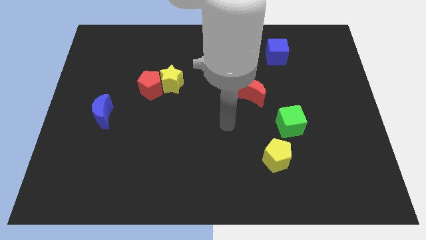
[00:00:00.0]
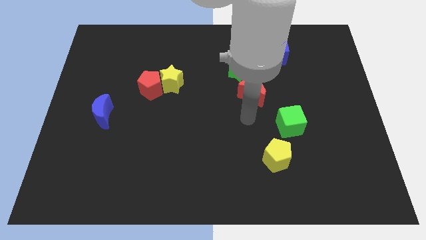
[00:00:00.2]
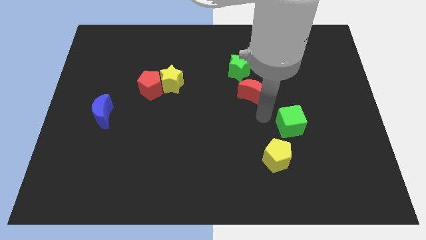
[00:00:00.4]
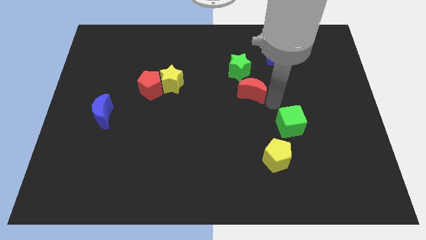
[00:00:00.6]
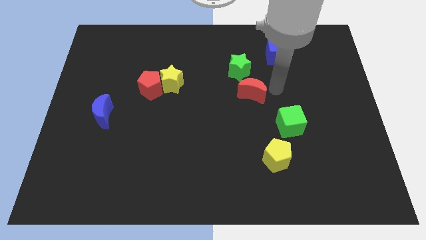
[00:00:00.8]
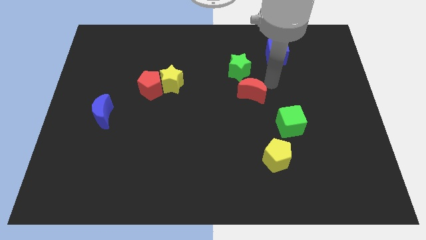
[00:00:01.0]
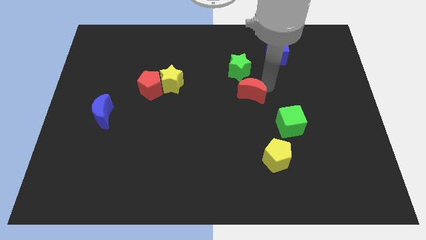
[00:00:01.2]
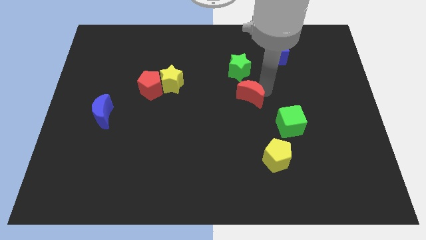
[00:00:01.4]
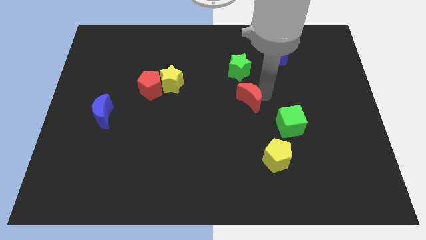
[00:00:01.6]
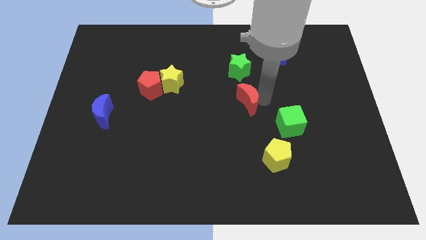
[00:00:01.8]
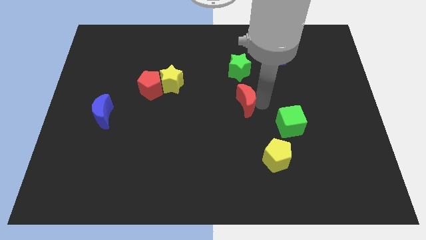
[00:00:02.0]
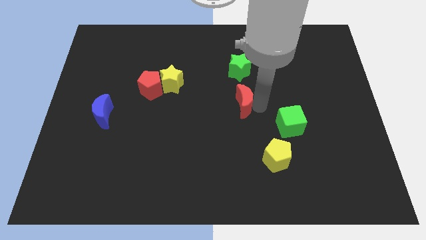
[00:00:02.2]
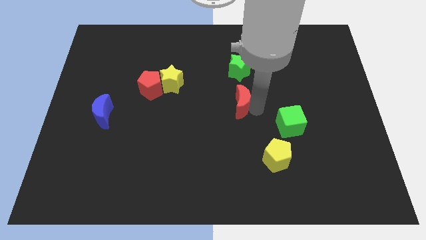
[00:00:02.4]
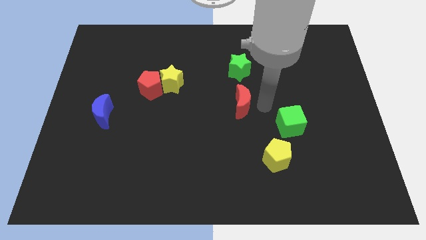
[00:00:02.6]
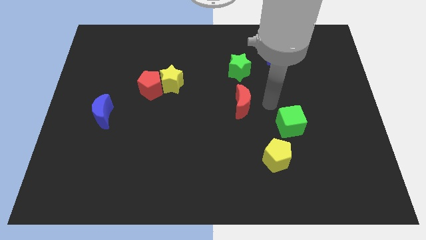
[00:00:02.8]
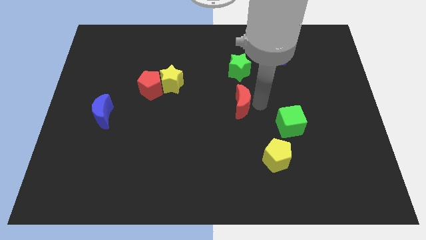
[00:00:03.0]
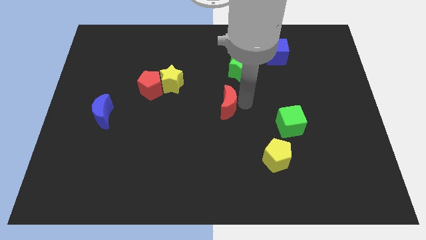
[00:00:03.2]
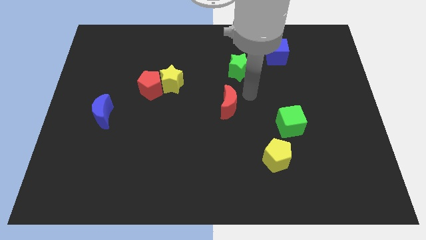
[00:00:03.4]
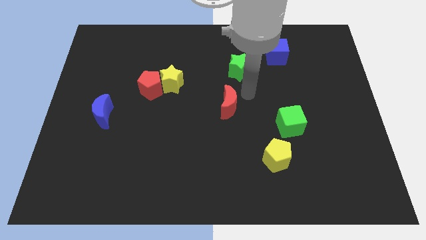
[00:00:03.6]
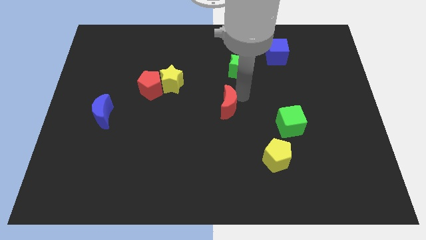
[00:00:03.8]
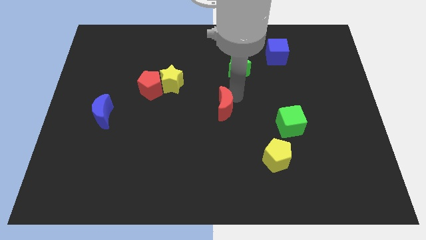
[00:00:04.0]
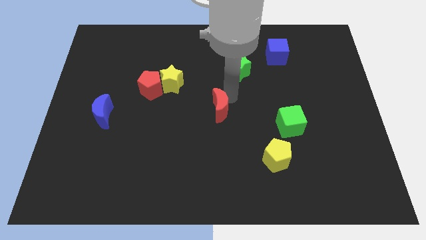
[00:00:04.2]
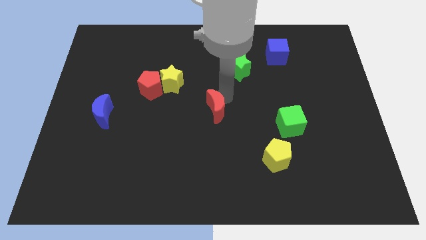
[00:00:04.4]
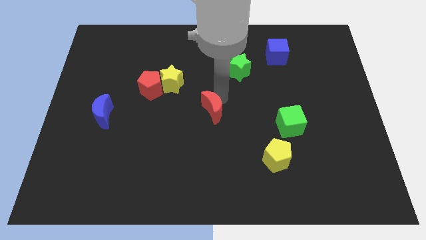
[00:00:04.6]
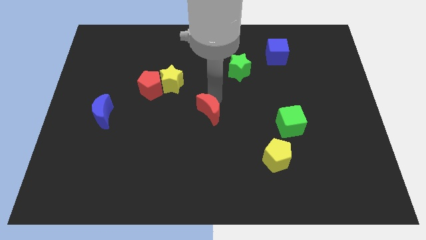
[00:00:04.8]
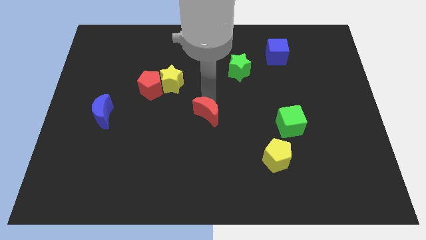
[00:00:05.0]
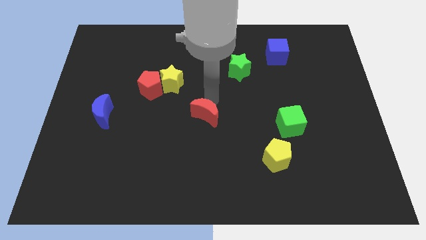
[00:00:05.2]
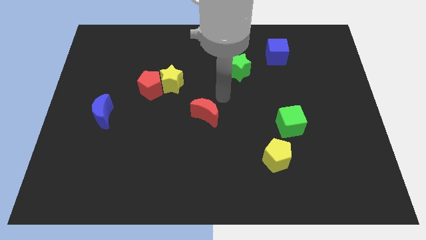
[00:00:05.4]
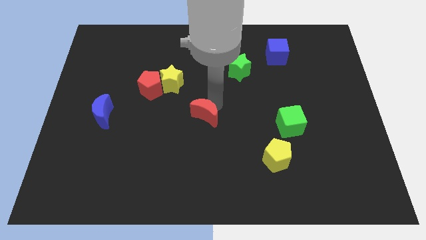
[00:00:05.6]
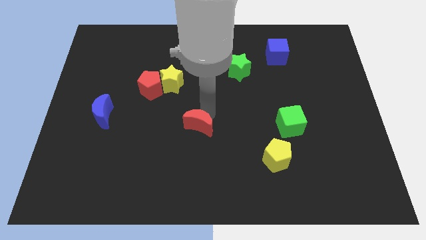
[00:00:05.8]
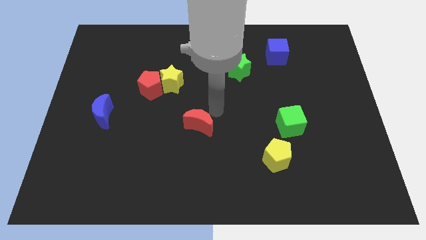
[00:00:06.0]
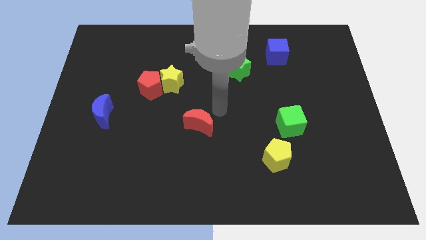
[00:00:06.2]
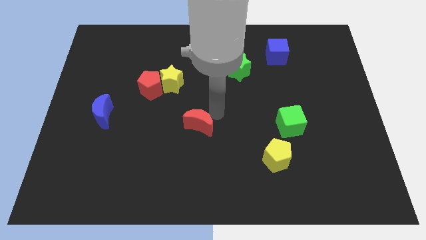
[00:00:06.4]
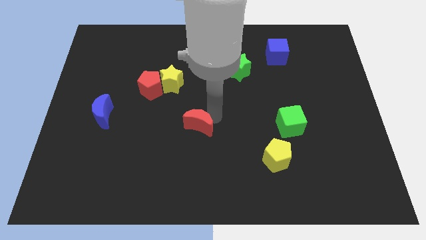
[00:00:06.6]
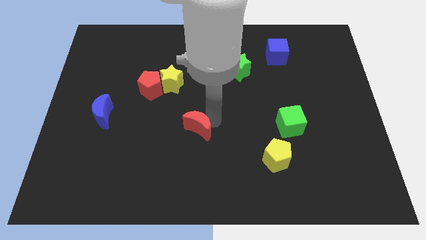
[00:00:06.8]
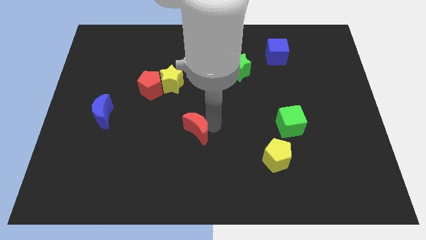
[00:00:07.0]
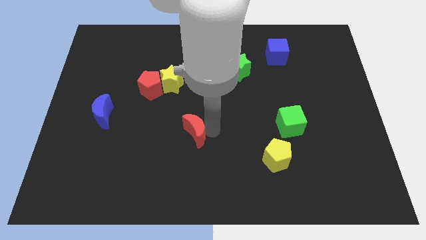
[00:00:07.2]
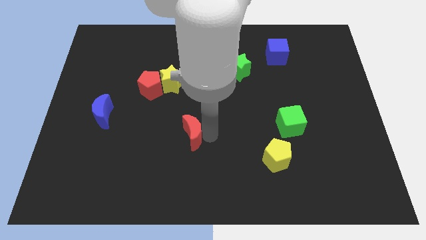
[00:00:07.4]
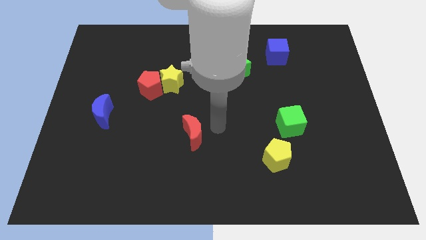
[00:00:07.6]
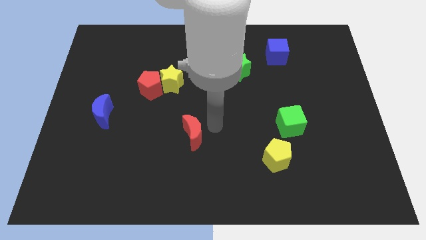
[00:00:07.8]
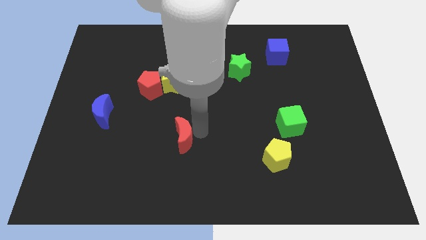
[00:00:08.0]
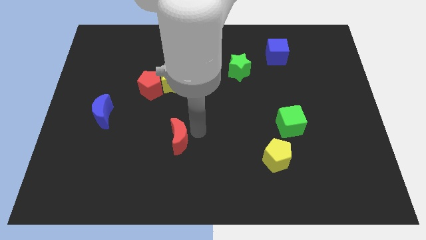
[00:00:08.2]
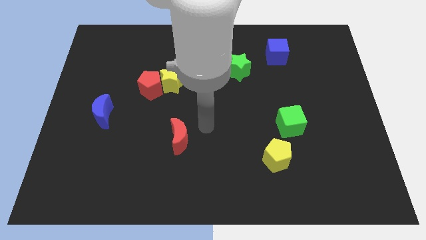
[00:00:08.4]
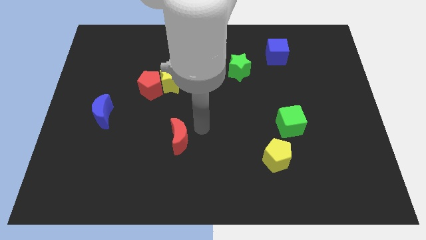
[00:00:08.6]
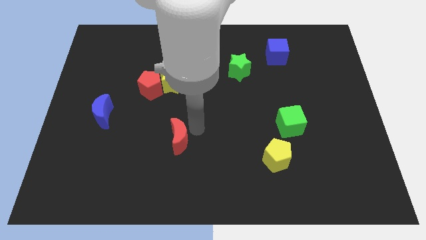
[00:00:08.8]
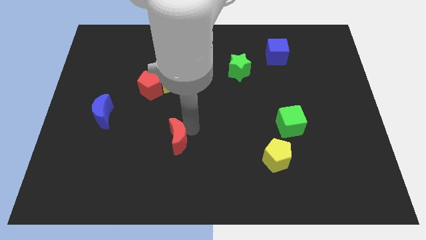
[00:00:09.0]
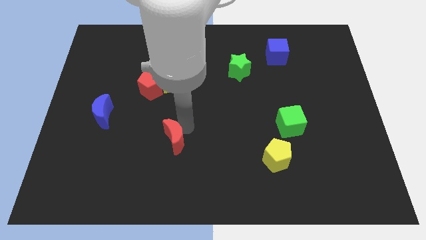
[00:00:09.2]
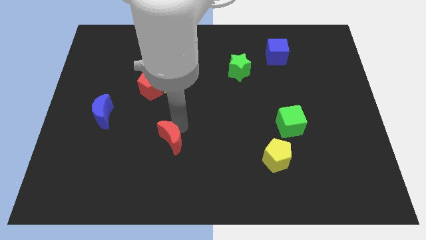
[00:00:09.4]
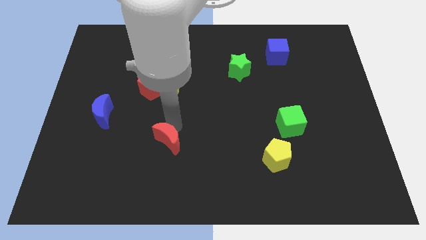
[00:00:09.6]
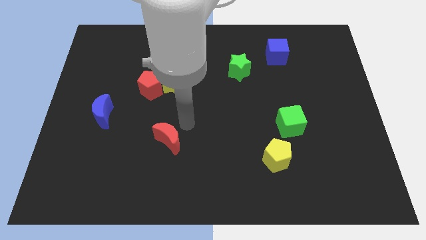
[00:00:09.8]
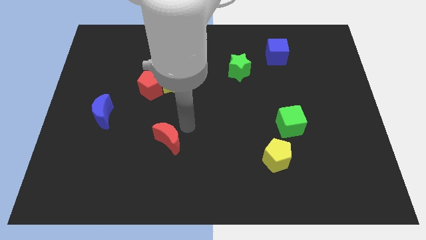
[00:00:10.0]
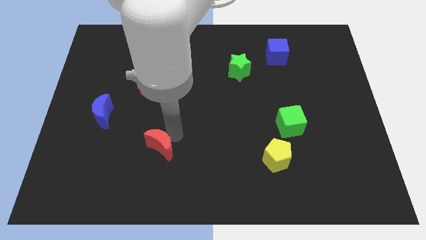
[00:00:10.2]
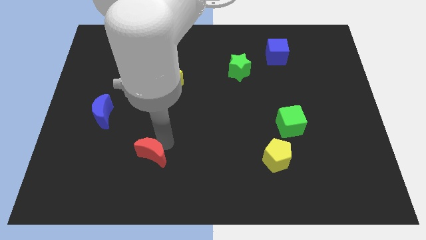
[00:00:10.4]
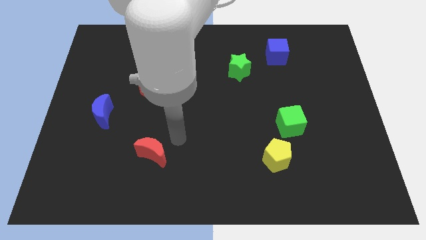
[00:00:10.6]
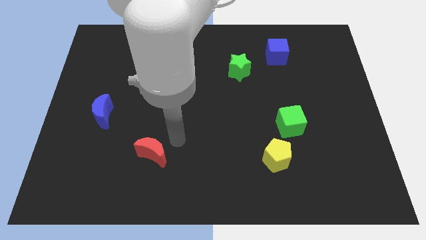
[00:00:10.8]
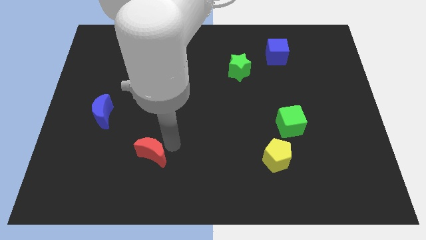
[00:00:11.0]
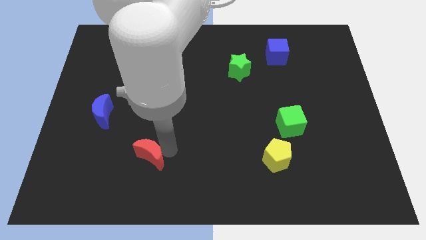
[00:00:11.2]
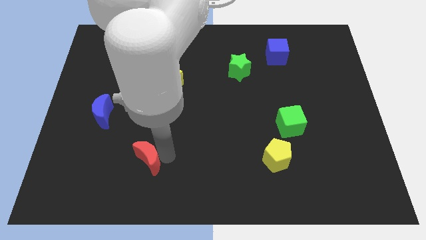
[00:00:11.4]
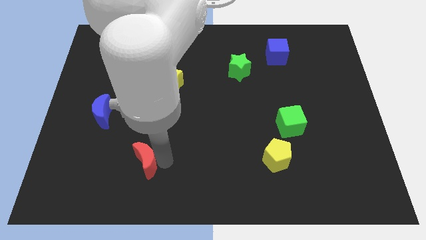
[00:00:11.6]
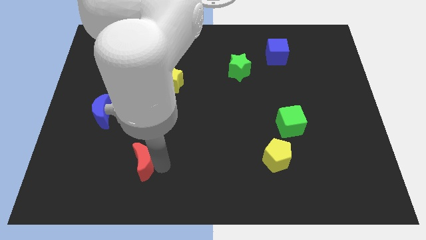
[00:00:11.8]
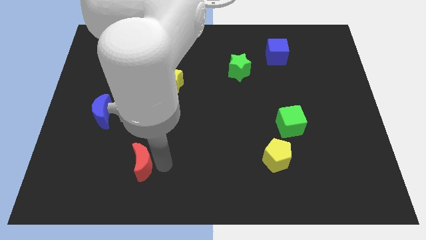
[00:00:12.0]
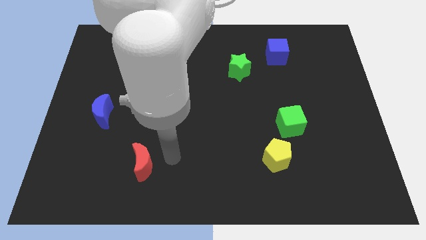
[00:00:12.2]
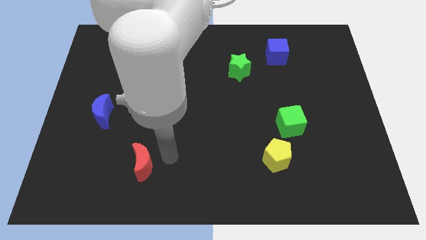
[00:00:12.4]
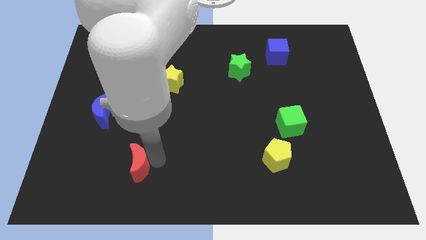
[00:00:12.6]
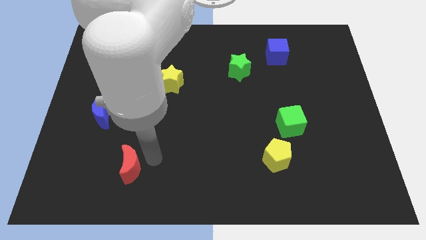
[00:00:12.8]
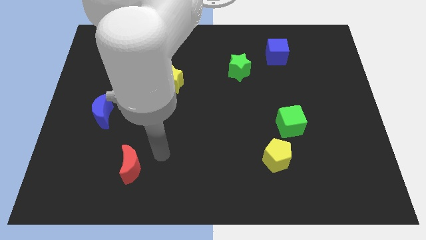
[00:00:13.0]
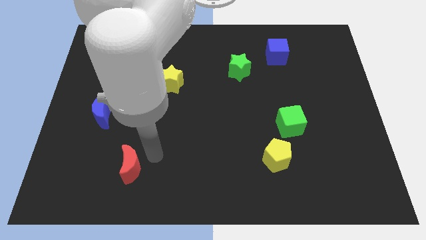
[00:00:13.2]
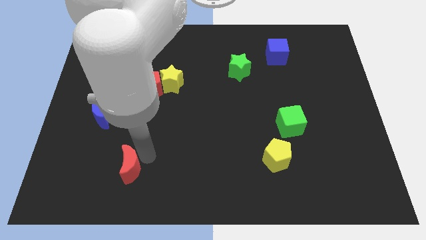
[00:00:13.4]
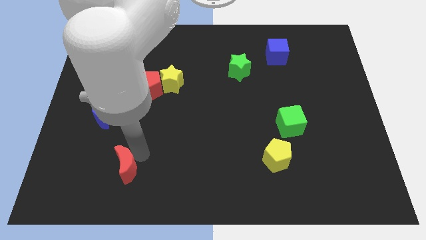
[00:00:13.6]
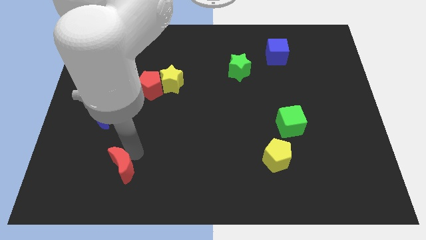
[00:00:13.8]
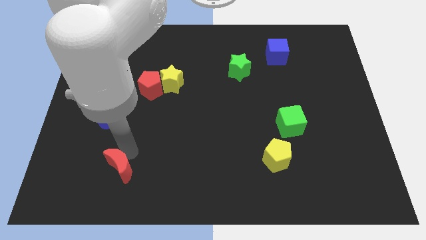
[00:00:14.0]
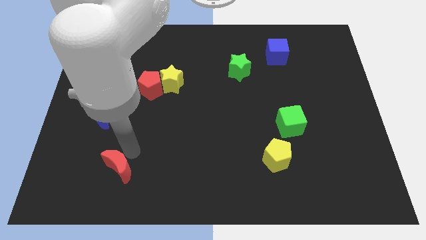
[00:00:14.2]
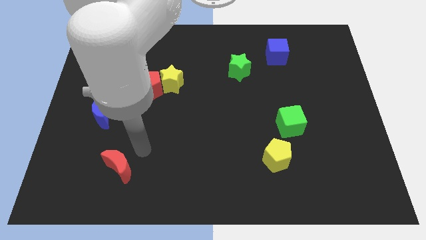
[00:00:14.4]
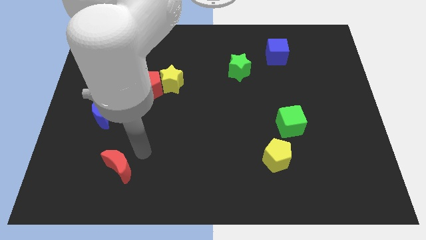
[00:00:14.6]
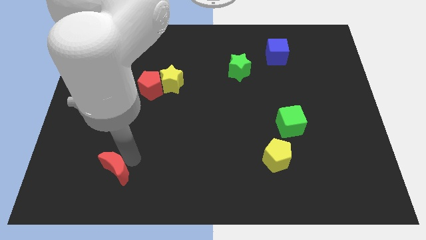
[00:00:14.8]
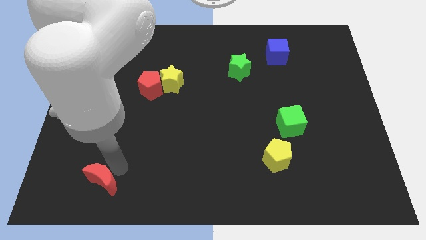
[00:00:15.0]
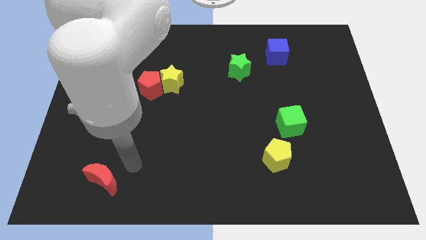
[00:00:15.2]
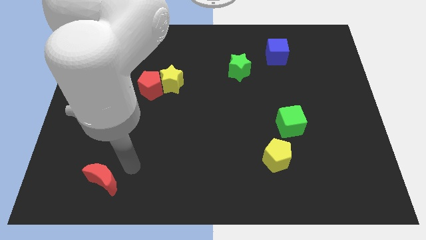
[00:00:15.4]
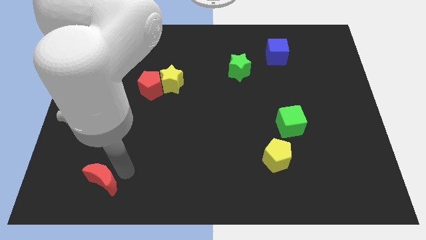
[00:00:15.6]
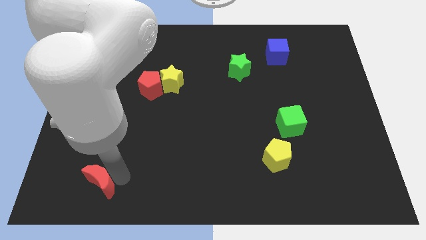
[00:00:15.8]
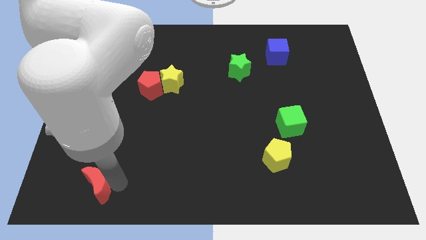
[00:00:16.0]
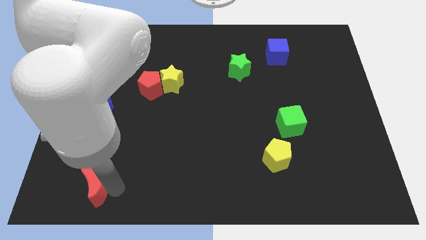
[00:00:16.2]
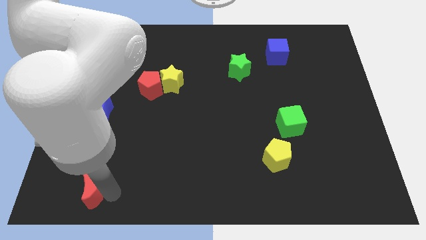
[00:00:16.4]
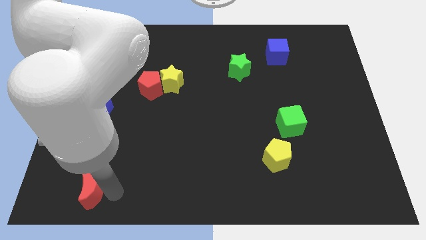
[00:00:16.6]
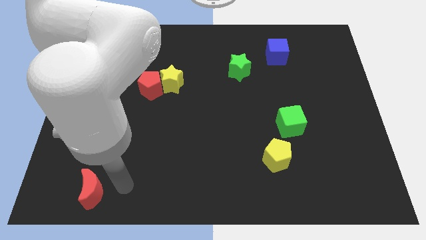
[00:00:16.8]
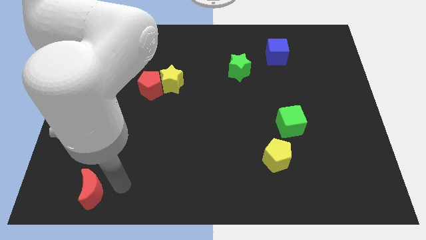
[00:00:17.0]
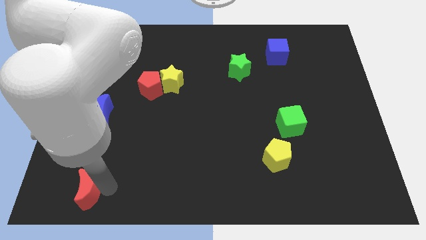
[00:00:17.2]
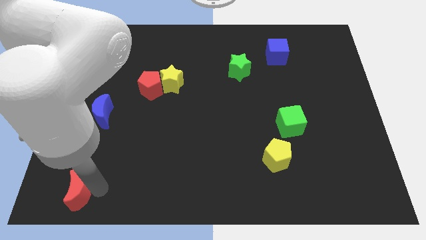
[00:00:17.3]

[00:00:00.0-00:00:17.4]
slide the red moon to the bottom left
